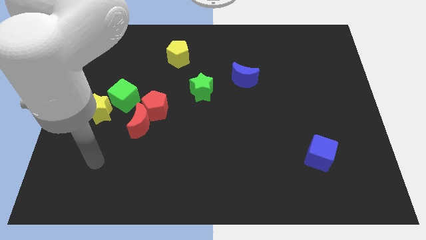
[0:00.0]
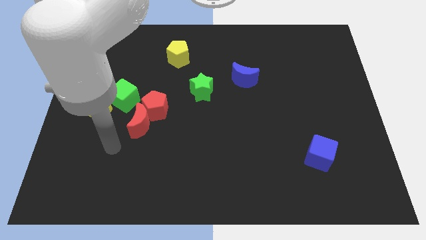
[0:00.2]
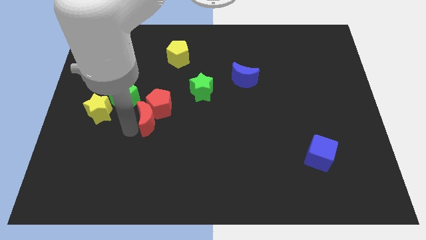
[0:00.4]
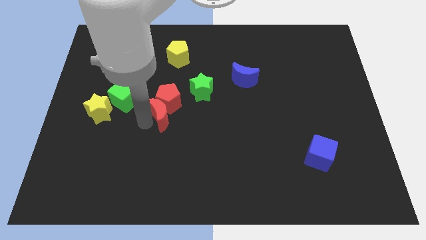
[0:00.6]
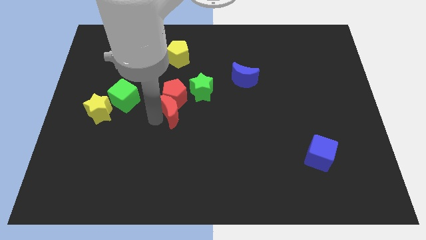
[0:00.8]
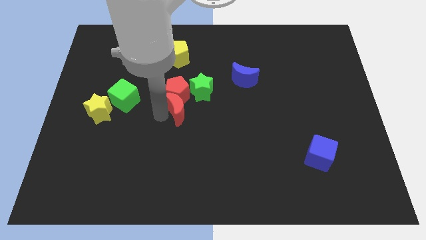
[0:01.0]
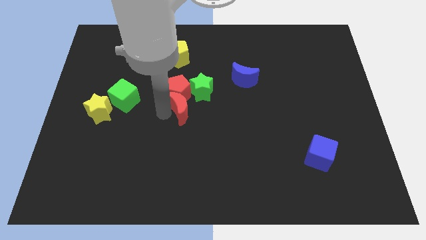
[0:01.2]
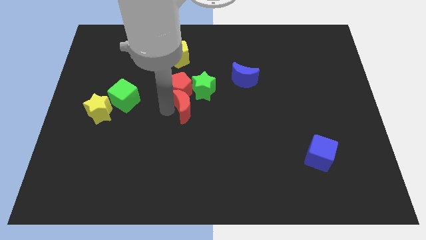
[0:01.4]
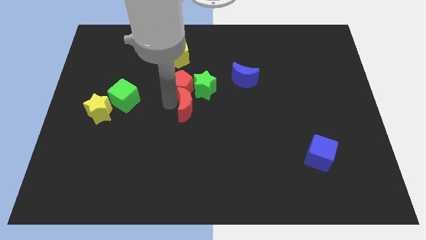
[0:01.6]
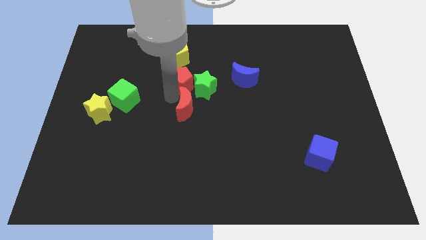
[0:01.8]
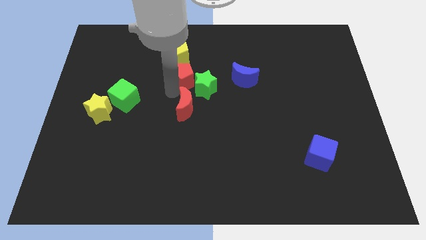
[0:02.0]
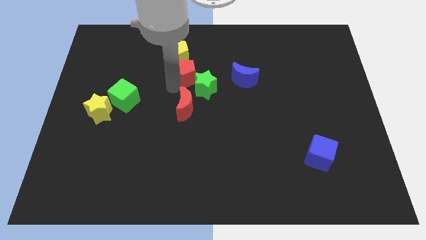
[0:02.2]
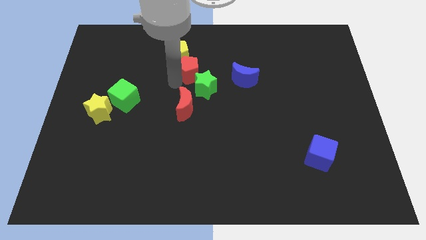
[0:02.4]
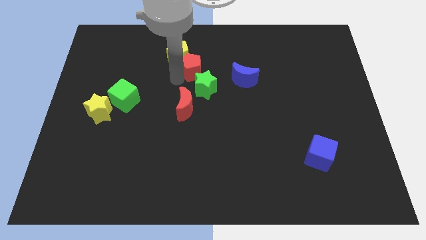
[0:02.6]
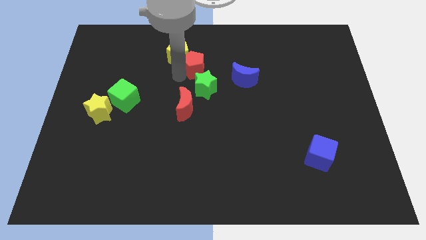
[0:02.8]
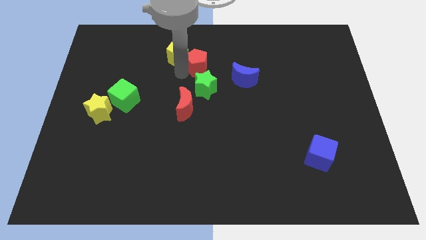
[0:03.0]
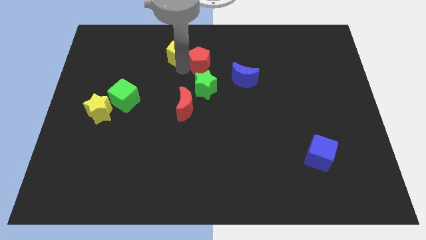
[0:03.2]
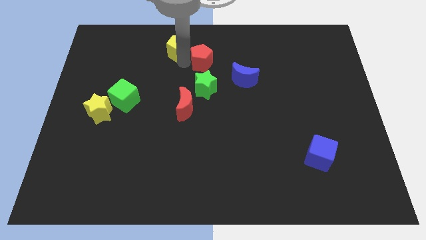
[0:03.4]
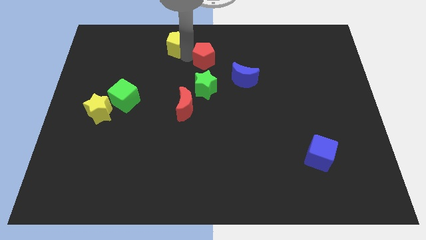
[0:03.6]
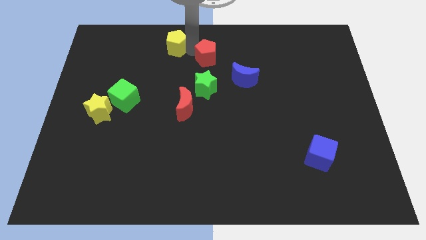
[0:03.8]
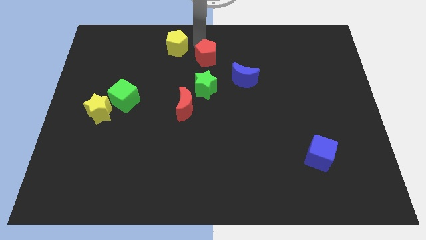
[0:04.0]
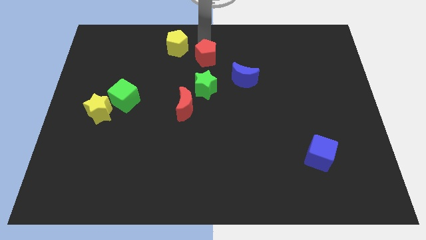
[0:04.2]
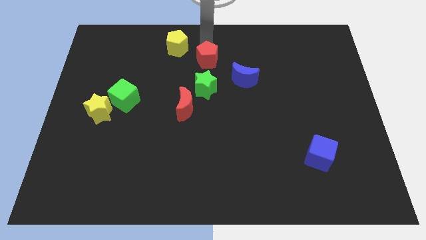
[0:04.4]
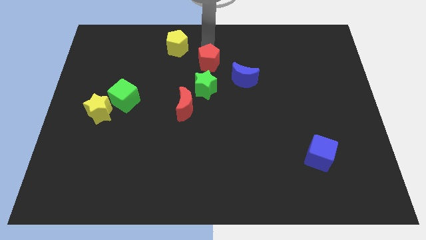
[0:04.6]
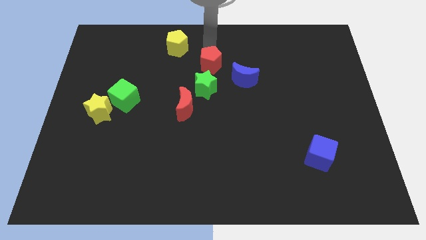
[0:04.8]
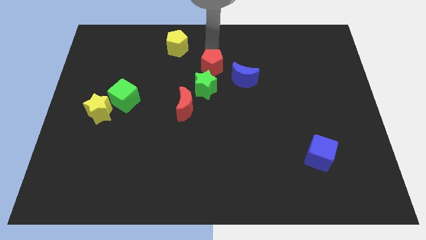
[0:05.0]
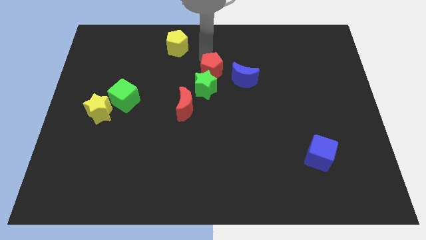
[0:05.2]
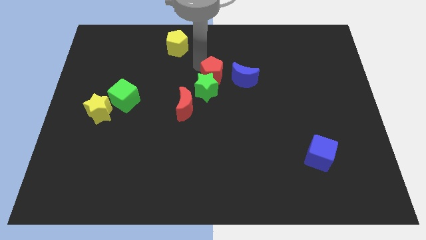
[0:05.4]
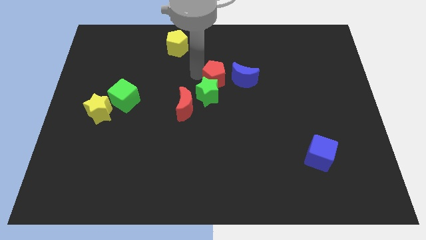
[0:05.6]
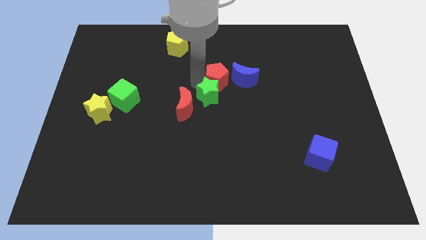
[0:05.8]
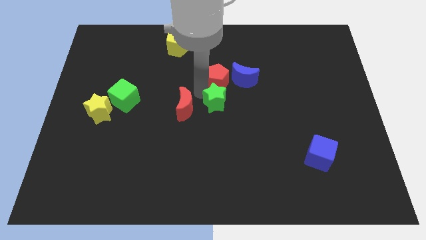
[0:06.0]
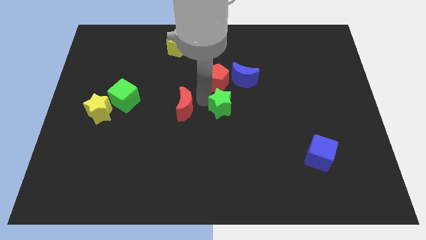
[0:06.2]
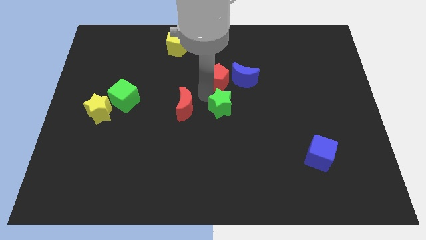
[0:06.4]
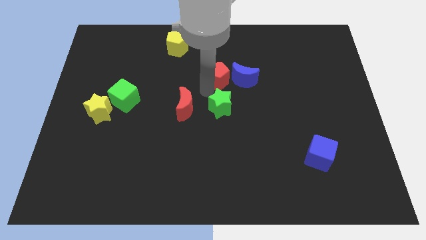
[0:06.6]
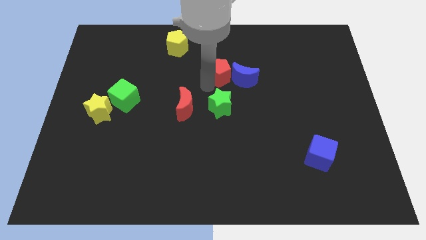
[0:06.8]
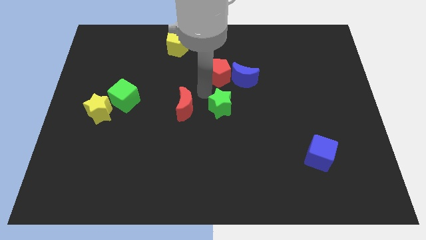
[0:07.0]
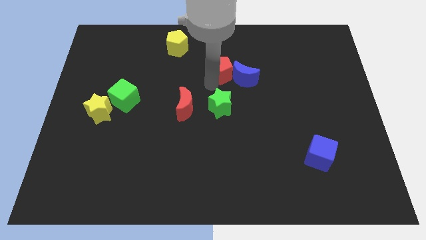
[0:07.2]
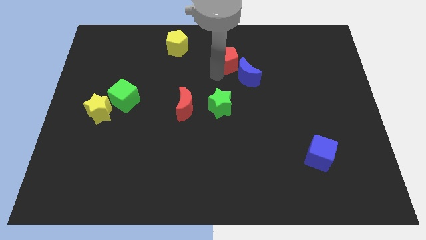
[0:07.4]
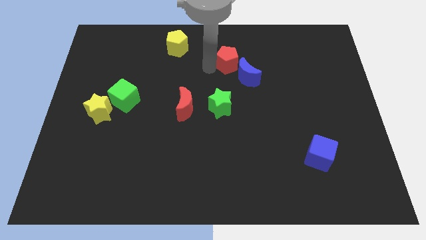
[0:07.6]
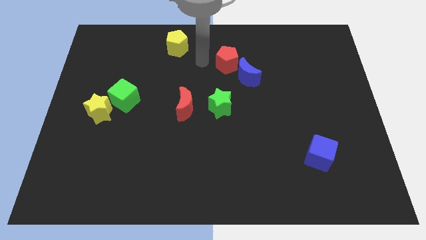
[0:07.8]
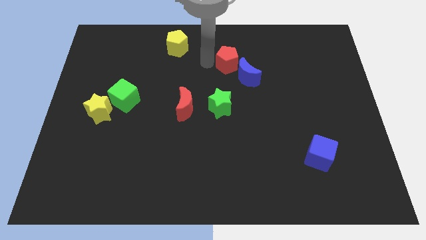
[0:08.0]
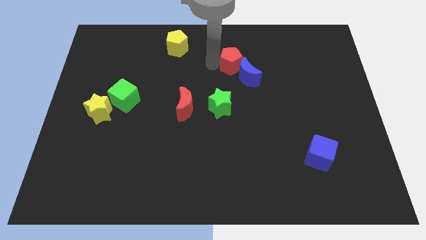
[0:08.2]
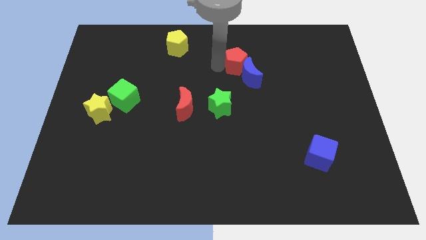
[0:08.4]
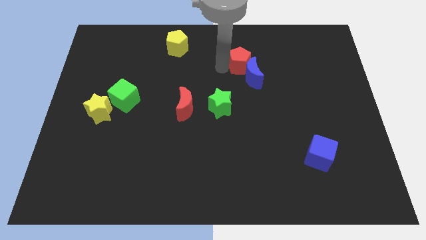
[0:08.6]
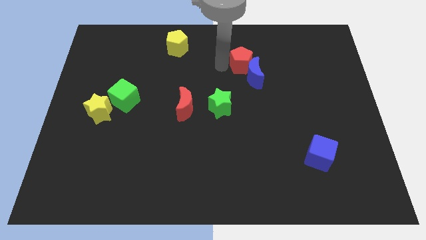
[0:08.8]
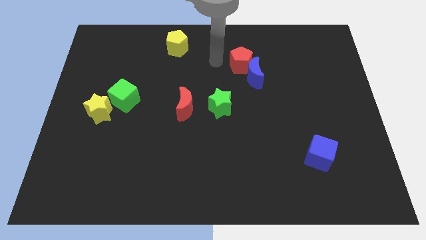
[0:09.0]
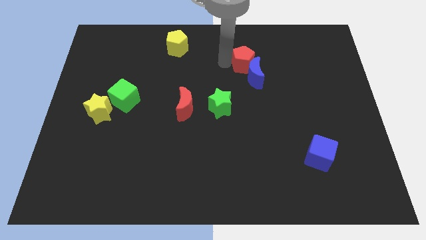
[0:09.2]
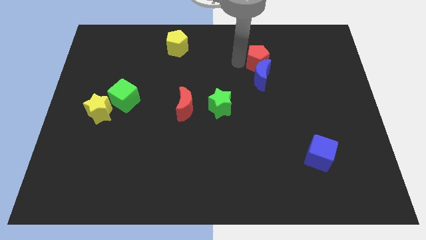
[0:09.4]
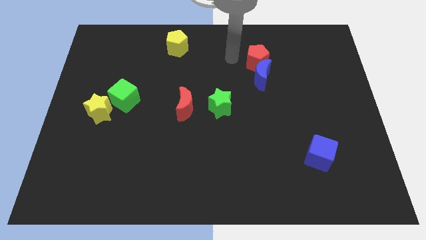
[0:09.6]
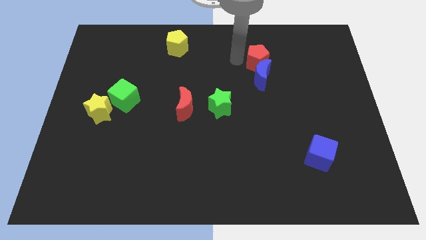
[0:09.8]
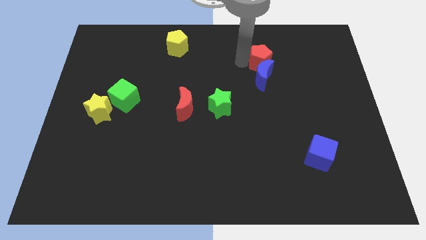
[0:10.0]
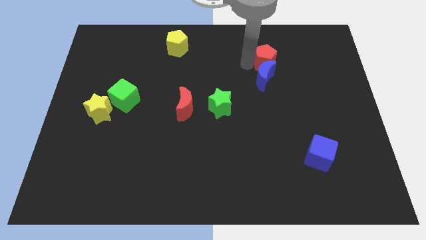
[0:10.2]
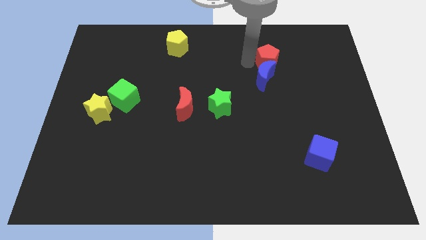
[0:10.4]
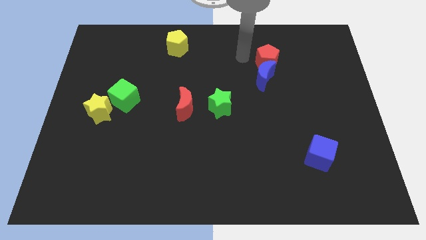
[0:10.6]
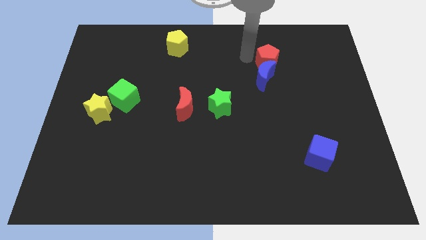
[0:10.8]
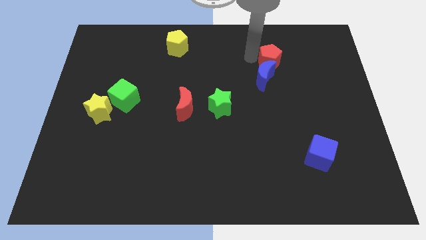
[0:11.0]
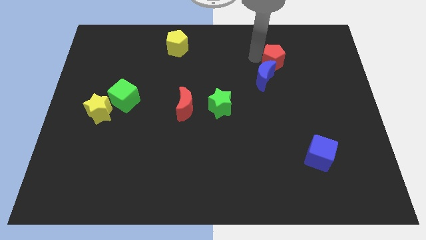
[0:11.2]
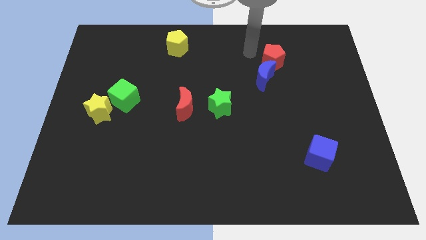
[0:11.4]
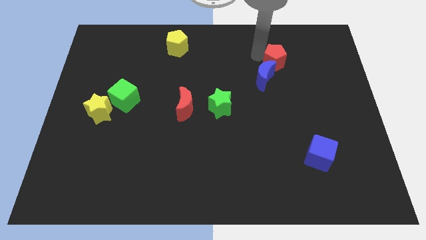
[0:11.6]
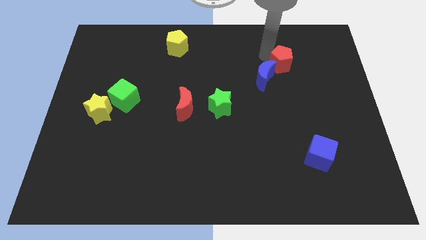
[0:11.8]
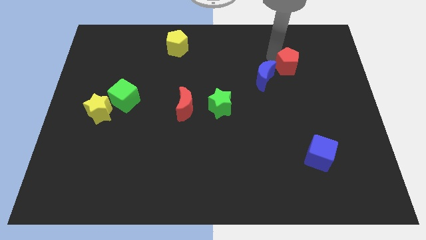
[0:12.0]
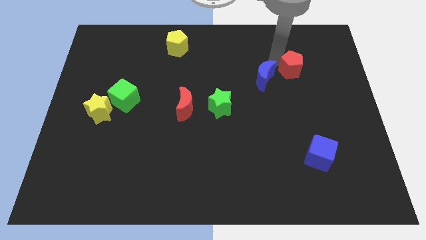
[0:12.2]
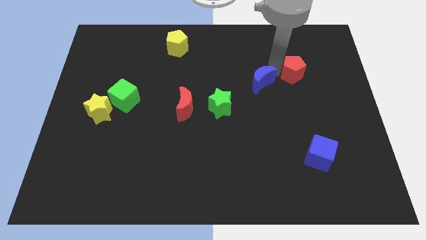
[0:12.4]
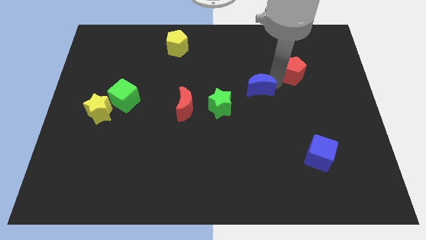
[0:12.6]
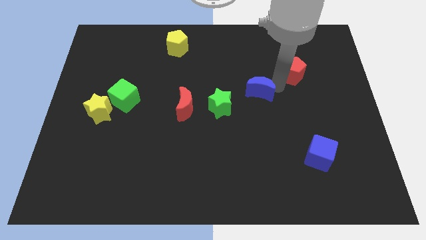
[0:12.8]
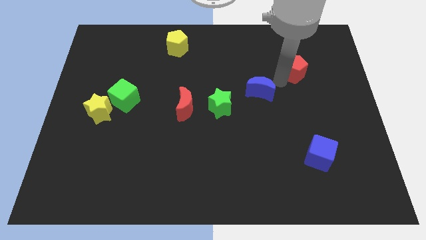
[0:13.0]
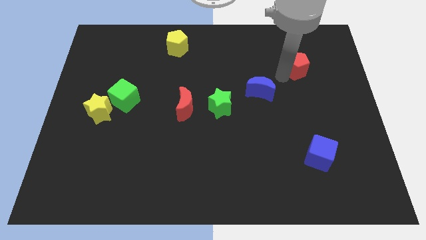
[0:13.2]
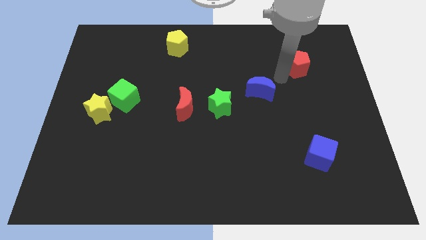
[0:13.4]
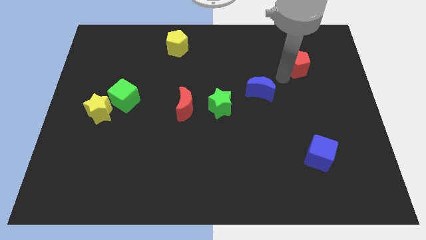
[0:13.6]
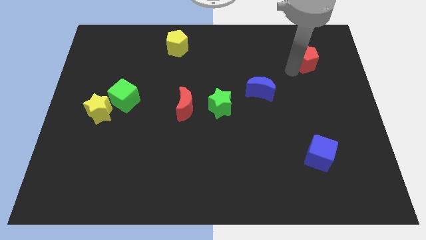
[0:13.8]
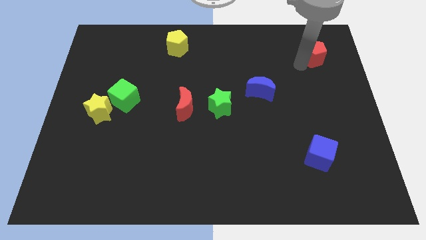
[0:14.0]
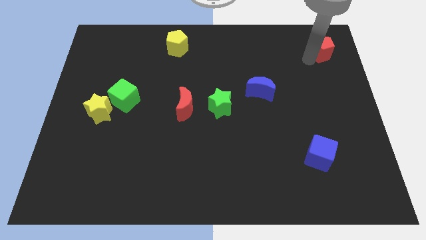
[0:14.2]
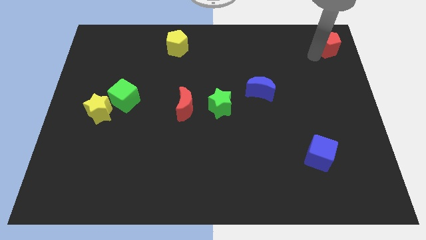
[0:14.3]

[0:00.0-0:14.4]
put the red pentagon to the top right

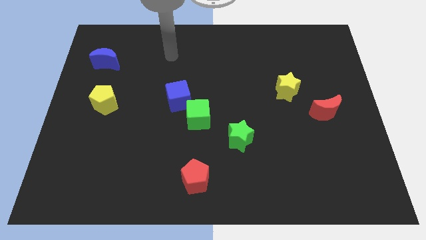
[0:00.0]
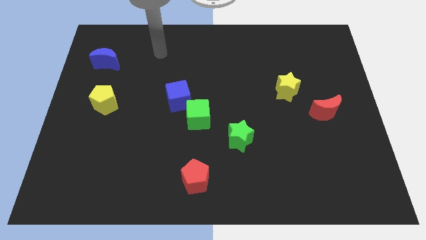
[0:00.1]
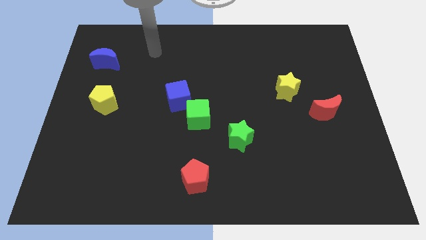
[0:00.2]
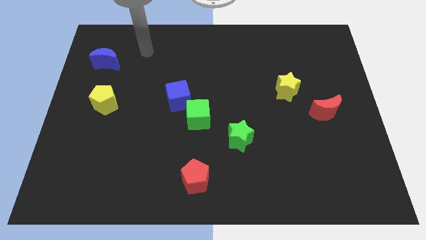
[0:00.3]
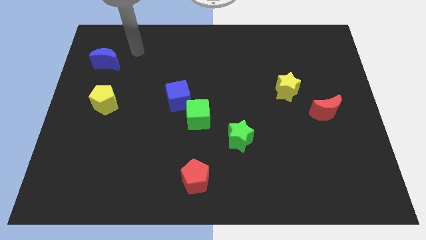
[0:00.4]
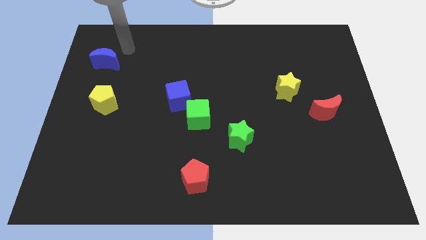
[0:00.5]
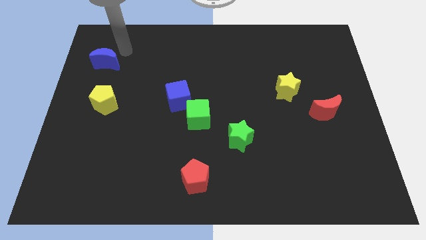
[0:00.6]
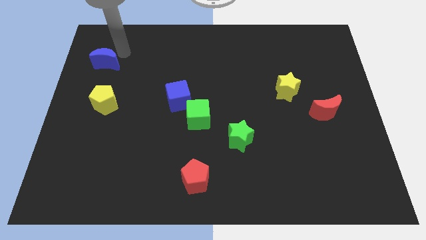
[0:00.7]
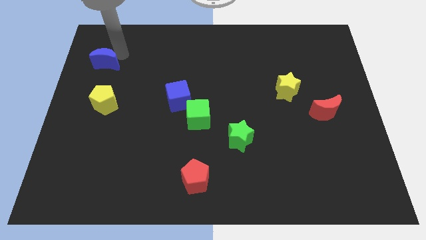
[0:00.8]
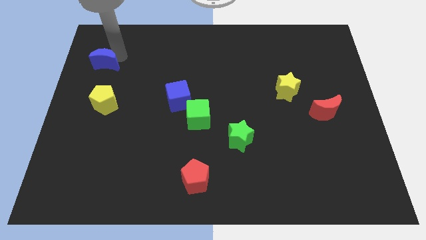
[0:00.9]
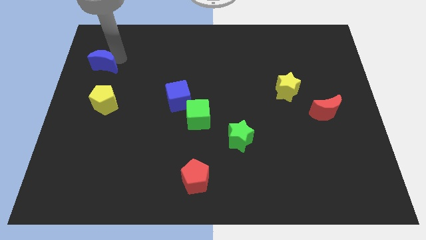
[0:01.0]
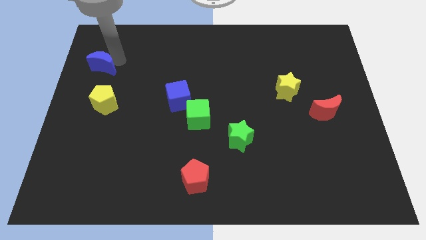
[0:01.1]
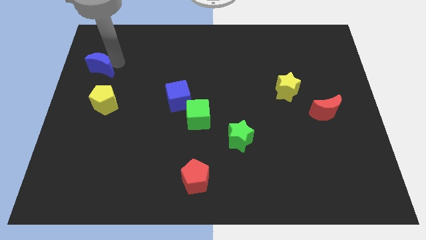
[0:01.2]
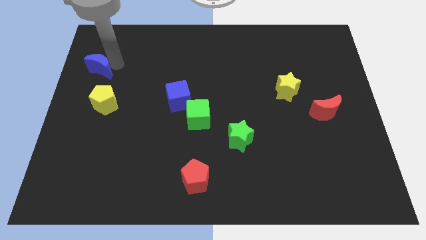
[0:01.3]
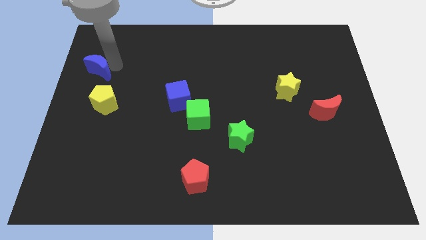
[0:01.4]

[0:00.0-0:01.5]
slide the blue moon to the left side
